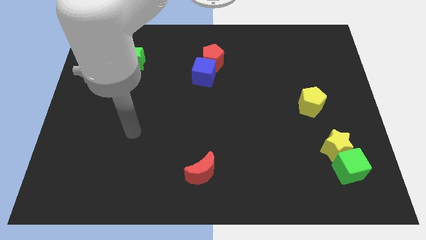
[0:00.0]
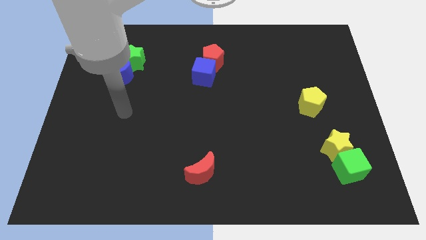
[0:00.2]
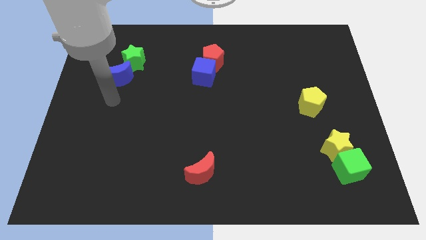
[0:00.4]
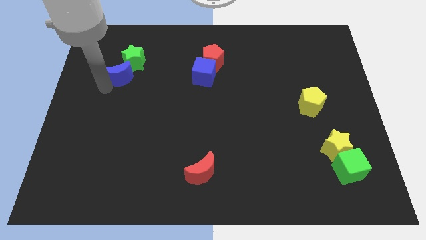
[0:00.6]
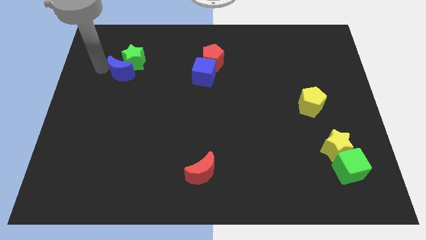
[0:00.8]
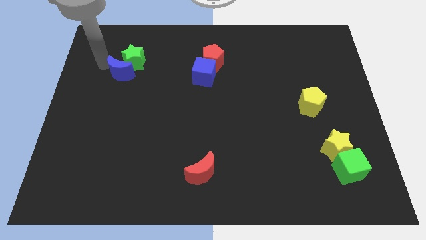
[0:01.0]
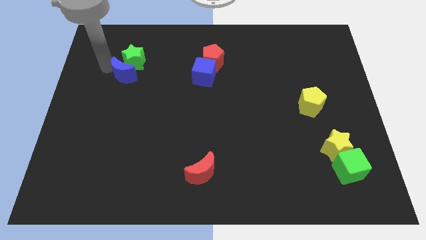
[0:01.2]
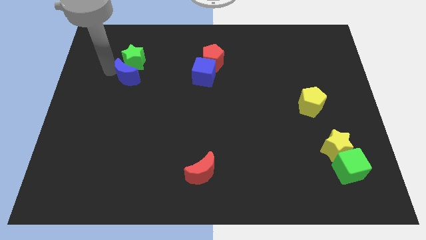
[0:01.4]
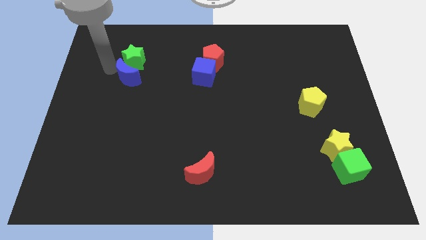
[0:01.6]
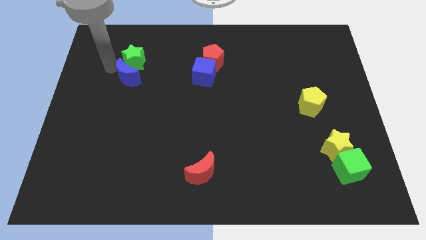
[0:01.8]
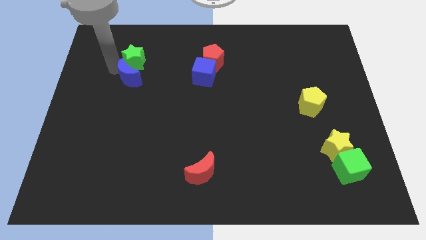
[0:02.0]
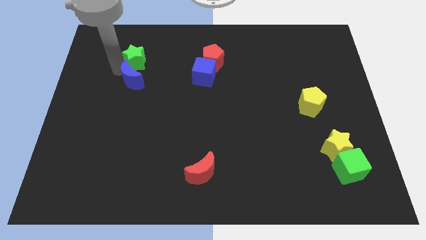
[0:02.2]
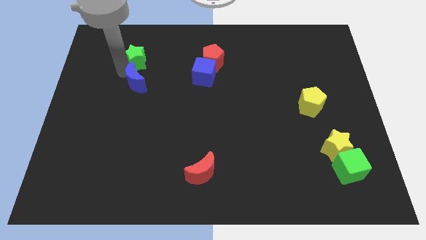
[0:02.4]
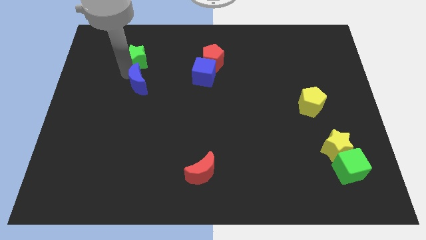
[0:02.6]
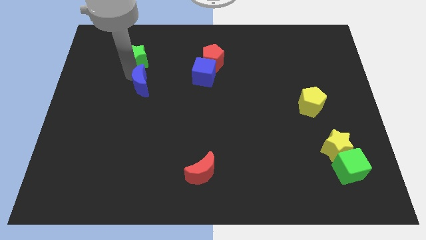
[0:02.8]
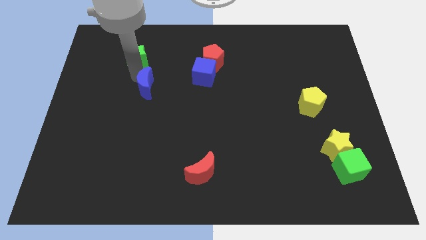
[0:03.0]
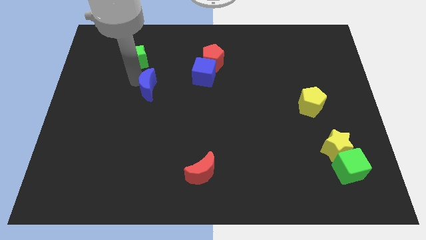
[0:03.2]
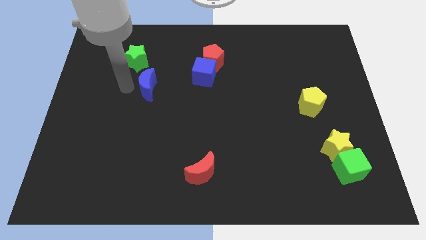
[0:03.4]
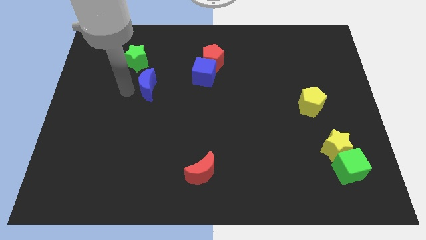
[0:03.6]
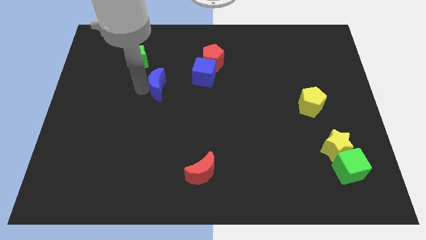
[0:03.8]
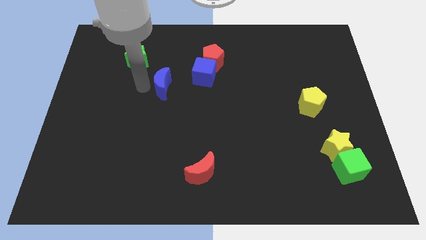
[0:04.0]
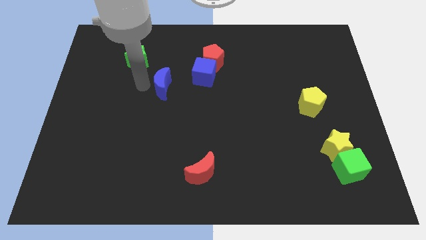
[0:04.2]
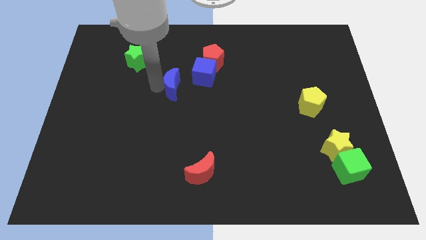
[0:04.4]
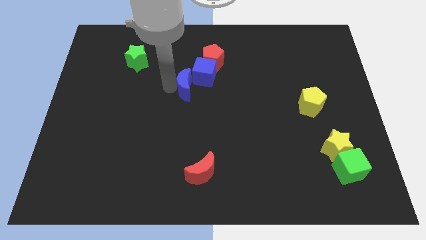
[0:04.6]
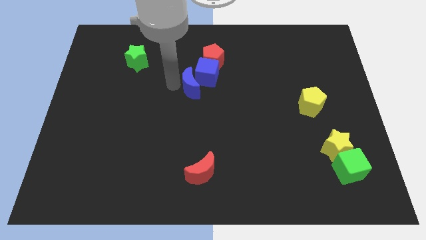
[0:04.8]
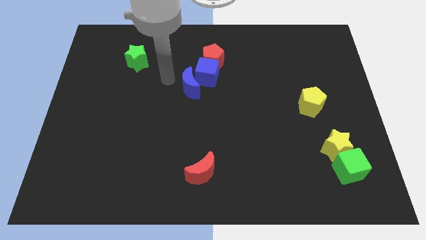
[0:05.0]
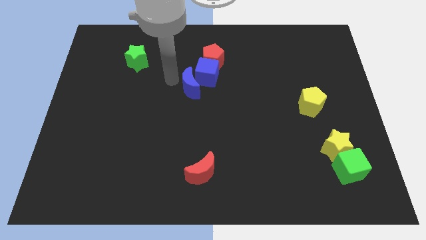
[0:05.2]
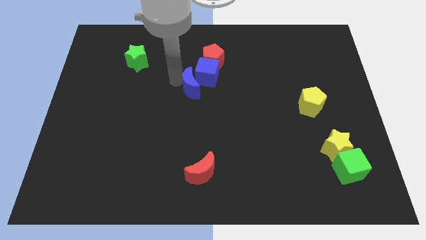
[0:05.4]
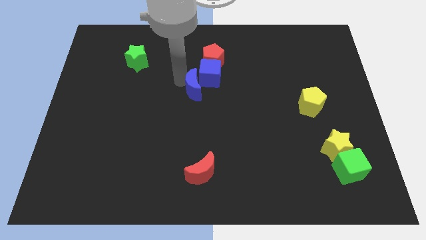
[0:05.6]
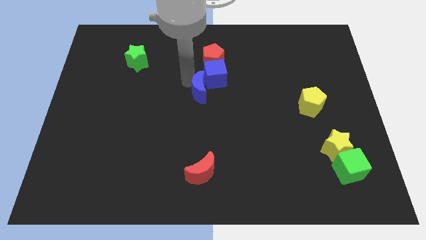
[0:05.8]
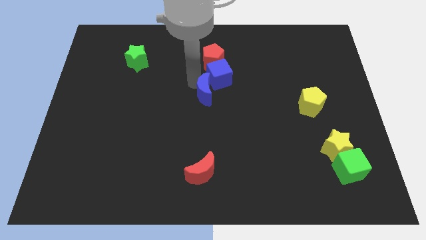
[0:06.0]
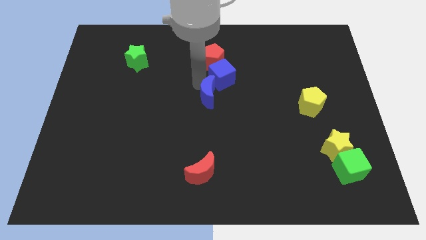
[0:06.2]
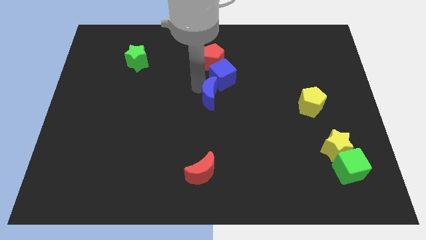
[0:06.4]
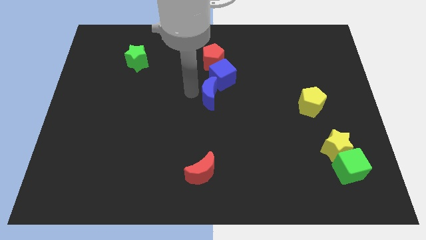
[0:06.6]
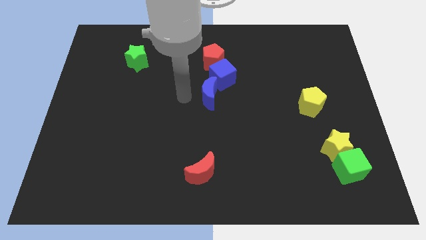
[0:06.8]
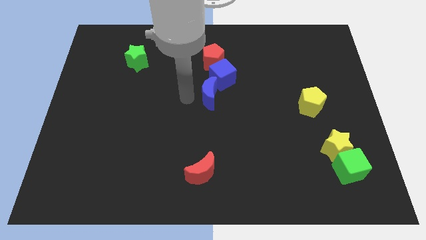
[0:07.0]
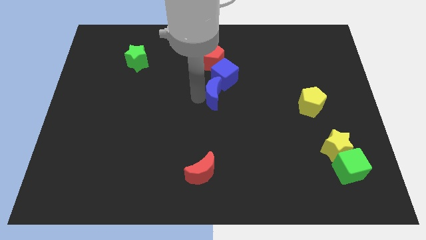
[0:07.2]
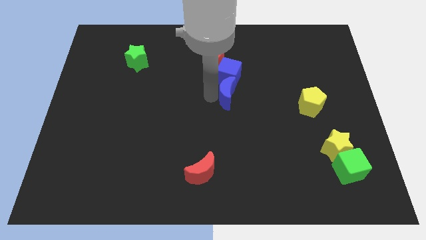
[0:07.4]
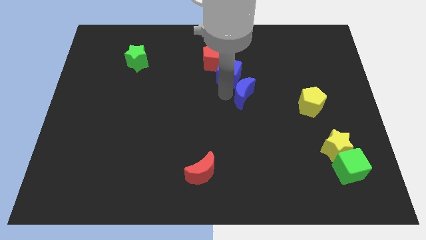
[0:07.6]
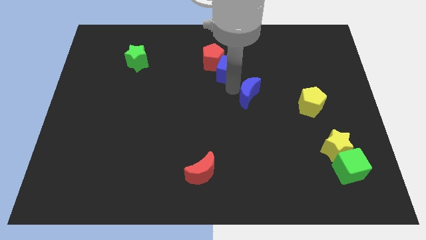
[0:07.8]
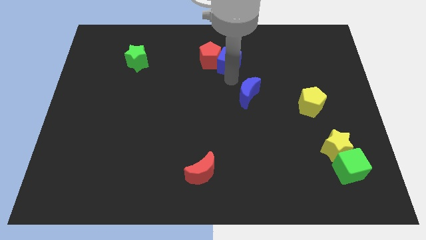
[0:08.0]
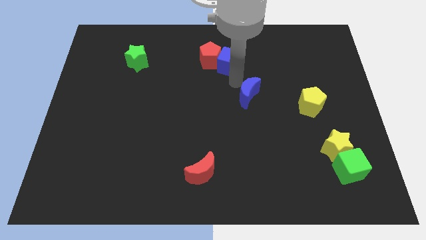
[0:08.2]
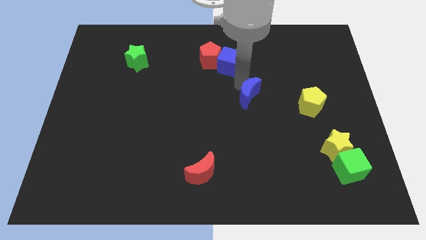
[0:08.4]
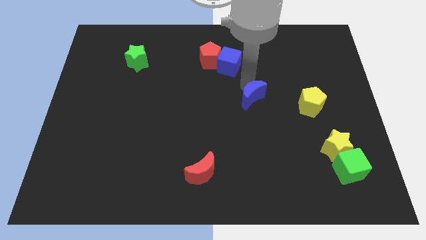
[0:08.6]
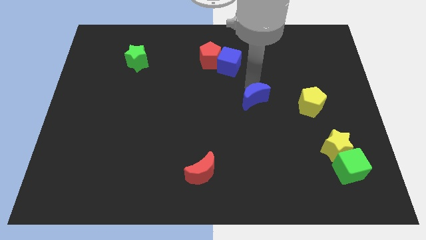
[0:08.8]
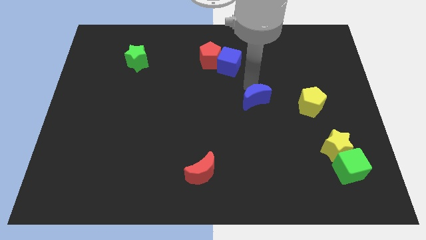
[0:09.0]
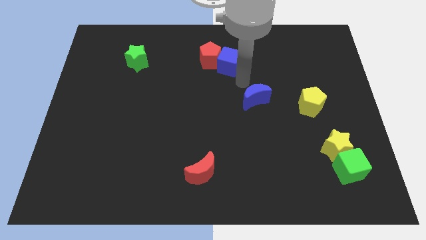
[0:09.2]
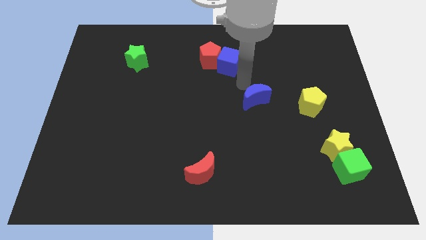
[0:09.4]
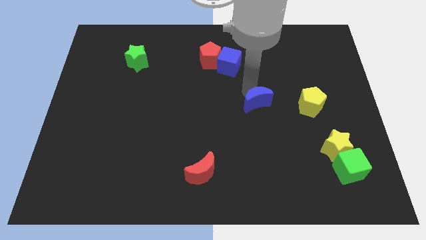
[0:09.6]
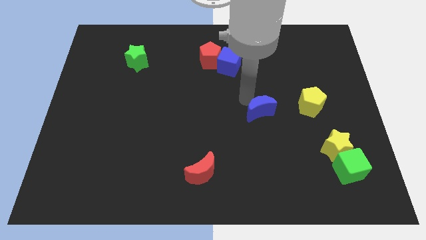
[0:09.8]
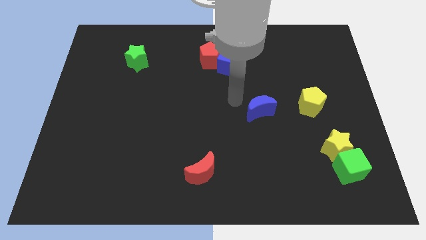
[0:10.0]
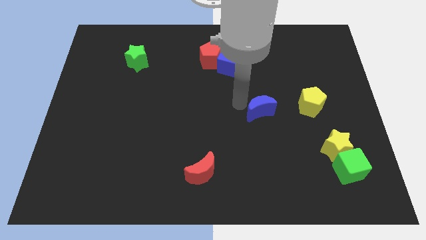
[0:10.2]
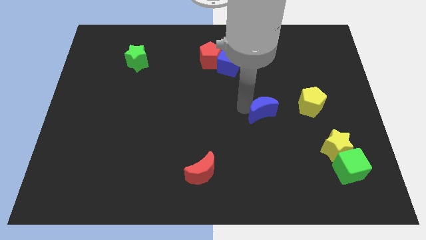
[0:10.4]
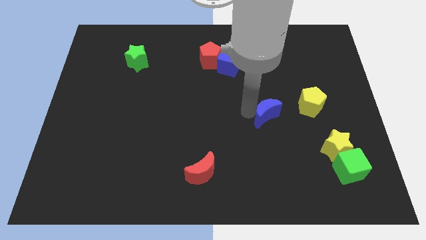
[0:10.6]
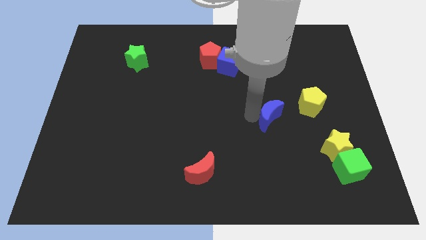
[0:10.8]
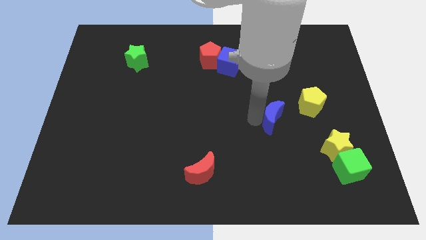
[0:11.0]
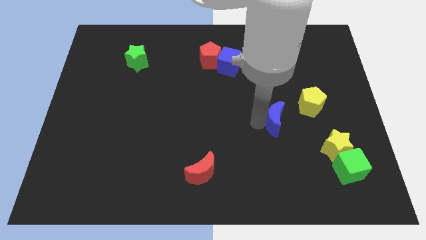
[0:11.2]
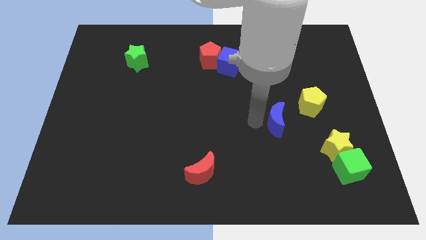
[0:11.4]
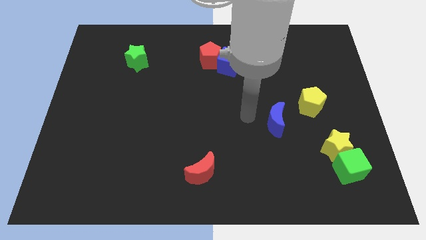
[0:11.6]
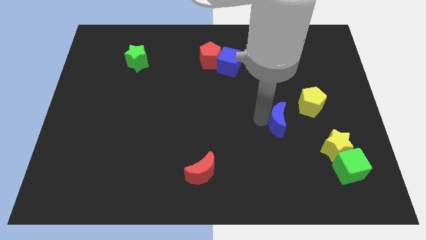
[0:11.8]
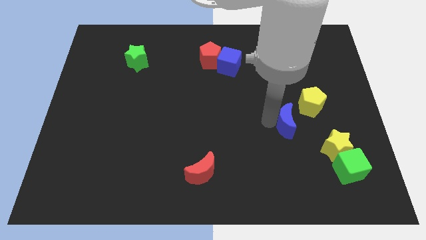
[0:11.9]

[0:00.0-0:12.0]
slide the blue moon to the top left side of the yellow star
